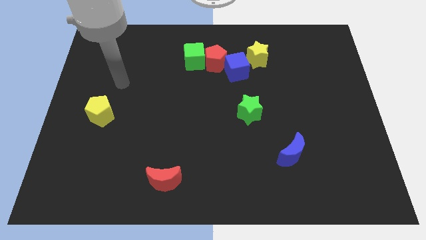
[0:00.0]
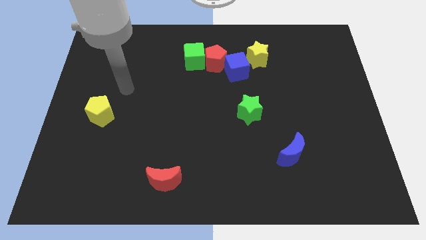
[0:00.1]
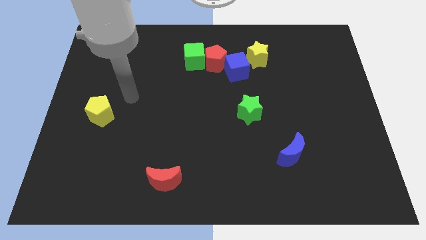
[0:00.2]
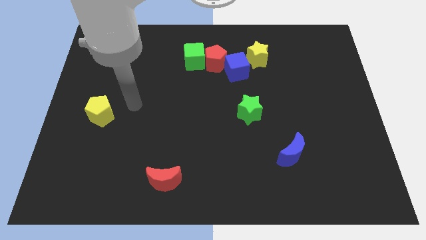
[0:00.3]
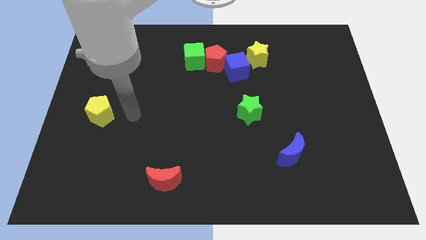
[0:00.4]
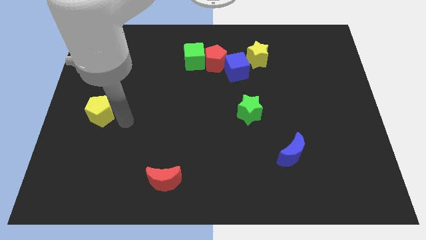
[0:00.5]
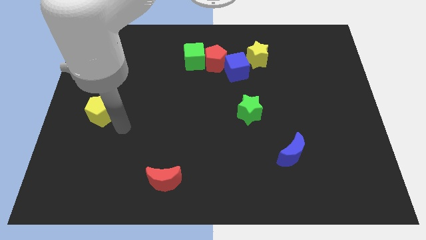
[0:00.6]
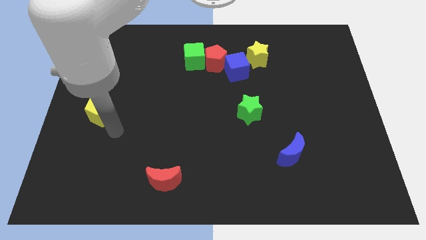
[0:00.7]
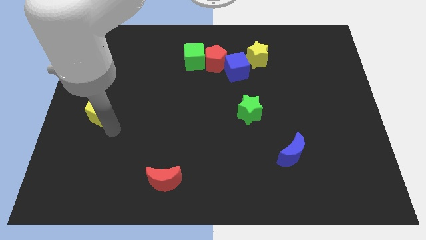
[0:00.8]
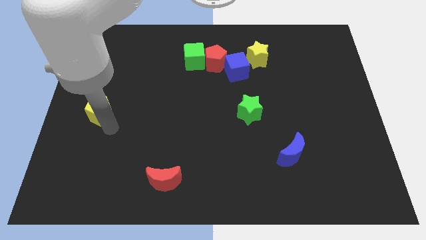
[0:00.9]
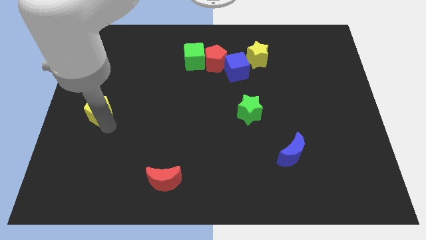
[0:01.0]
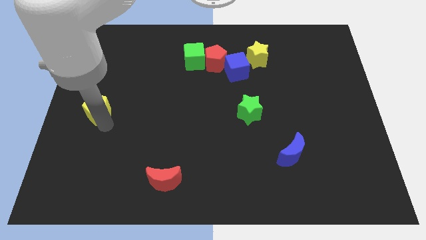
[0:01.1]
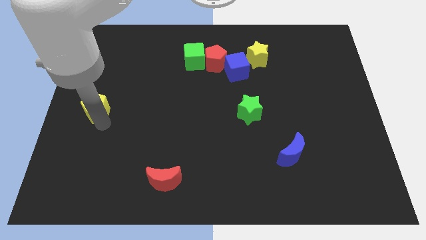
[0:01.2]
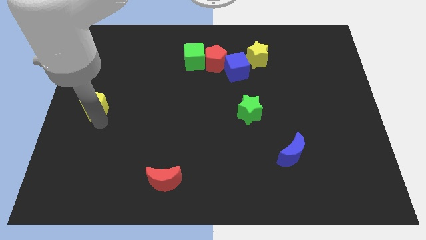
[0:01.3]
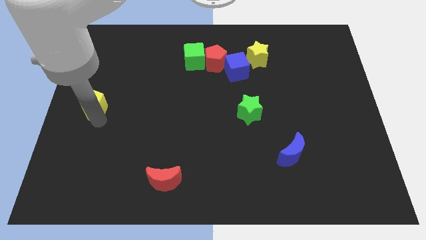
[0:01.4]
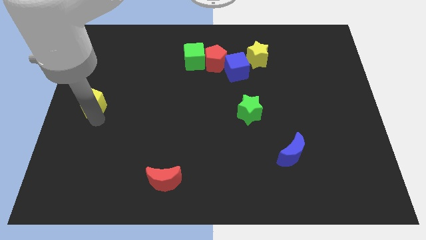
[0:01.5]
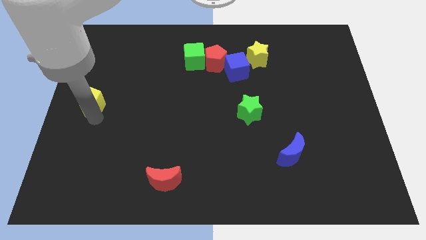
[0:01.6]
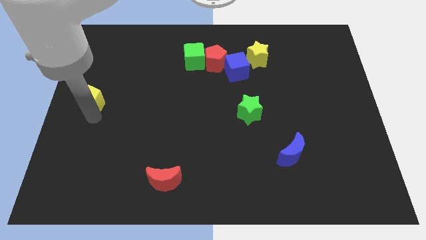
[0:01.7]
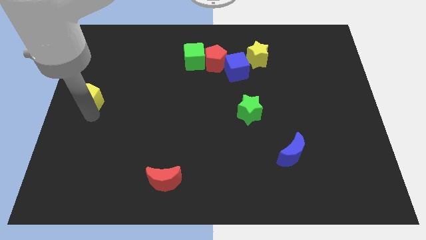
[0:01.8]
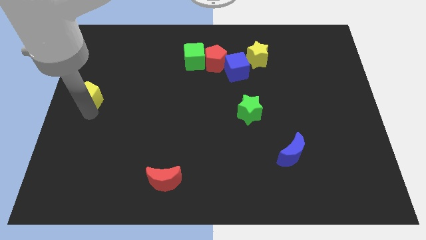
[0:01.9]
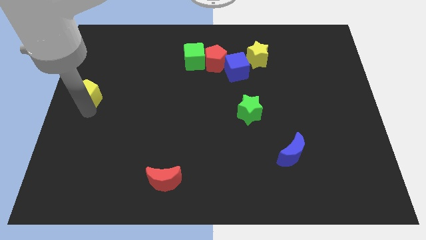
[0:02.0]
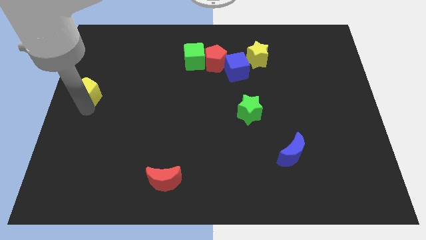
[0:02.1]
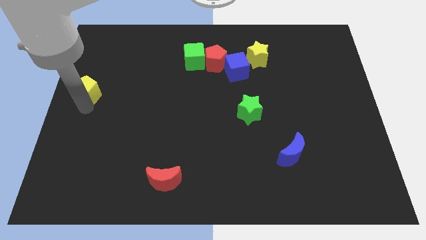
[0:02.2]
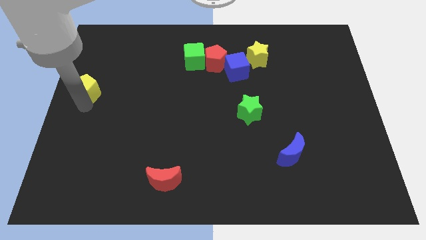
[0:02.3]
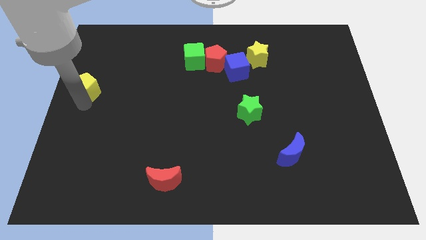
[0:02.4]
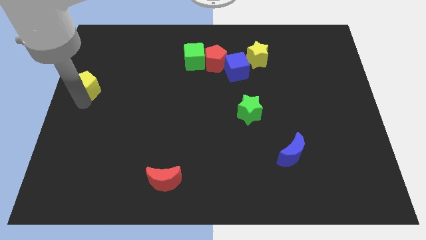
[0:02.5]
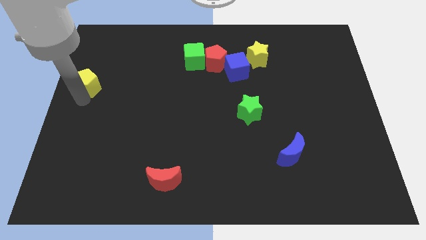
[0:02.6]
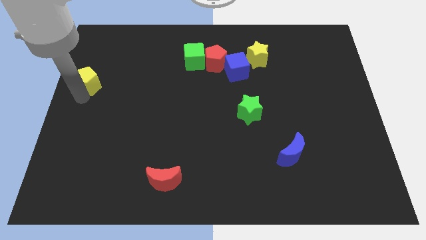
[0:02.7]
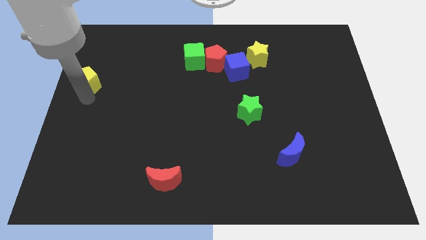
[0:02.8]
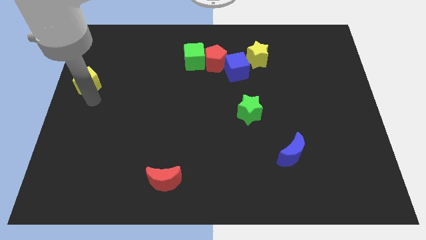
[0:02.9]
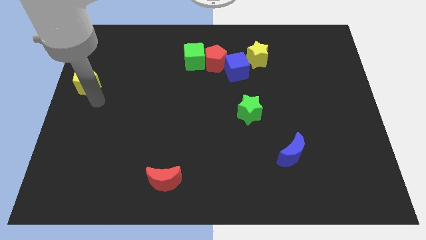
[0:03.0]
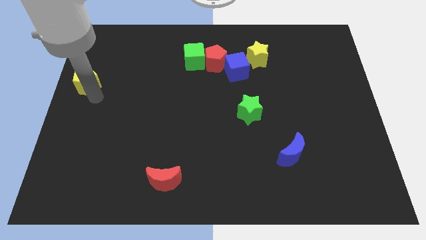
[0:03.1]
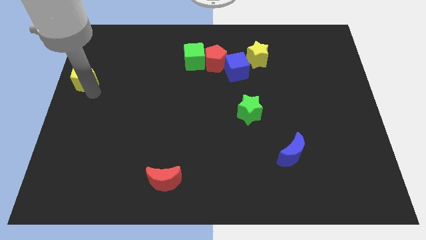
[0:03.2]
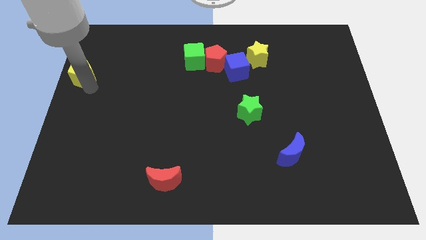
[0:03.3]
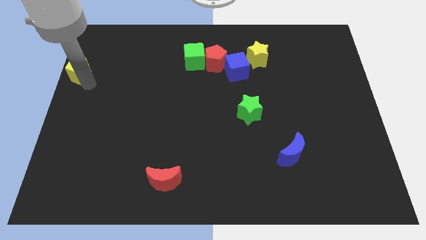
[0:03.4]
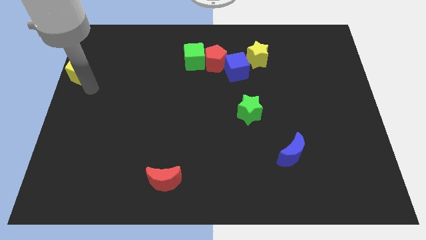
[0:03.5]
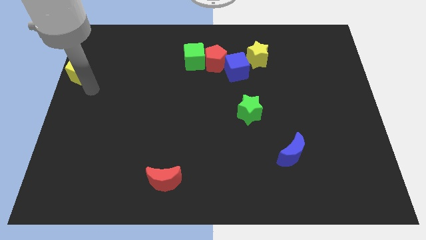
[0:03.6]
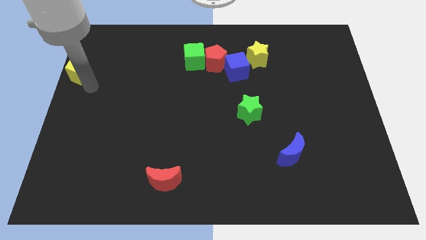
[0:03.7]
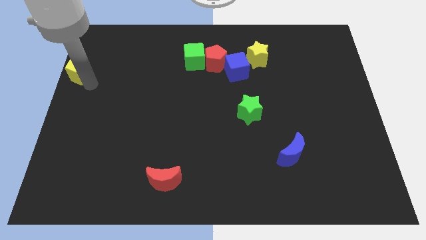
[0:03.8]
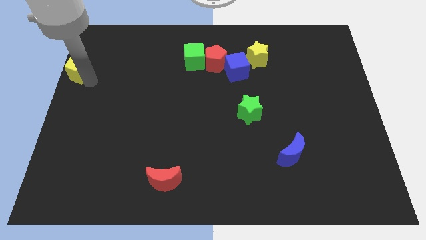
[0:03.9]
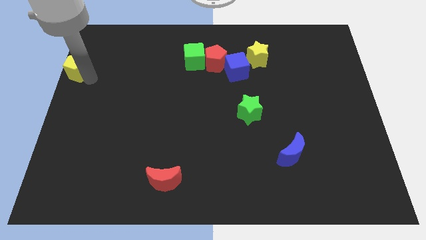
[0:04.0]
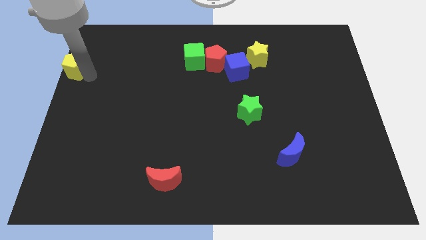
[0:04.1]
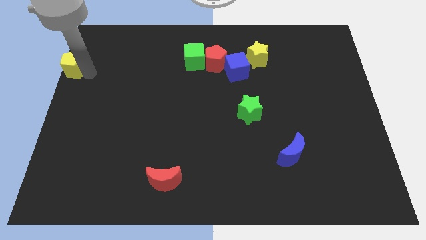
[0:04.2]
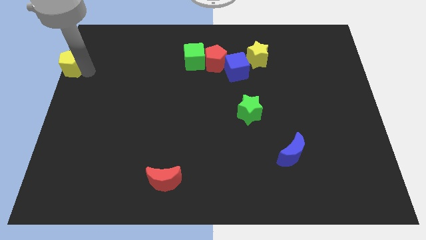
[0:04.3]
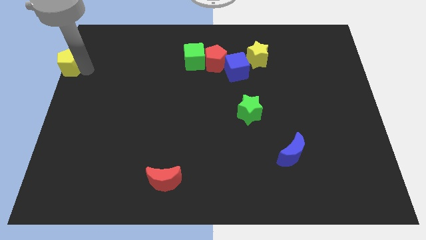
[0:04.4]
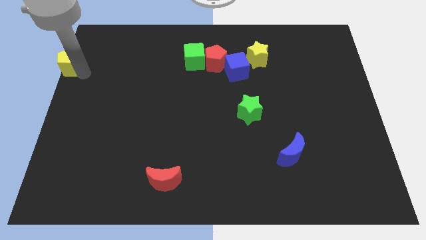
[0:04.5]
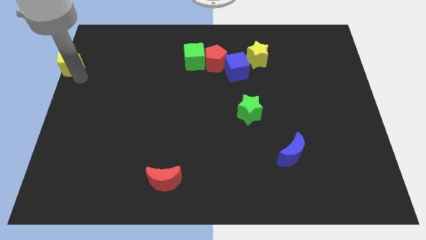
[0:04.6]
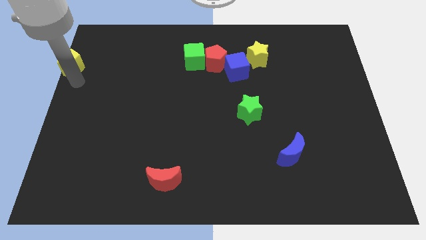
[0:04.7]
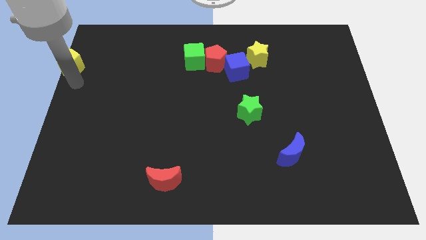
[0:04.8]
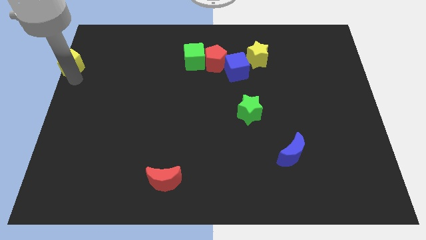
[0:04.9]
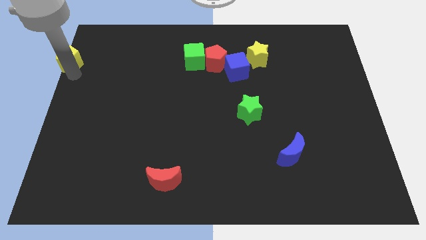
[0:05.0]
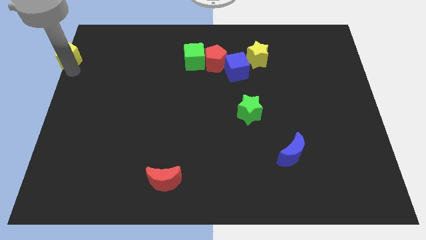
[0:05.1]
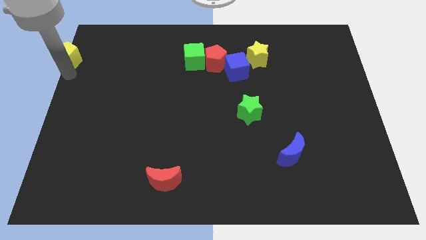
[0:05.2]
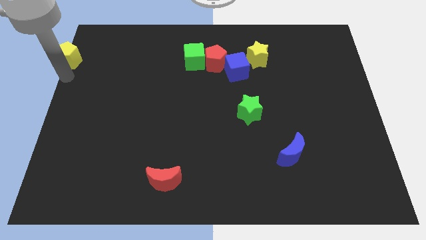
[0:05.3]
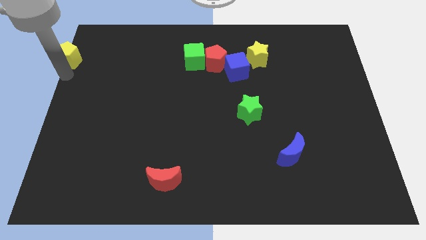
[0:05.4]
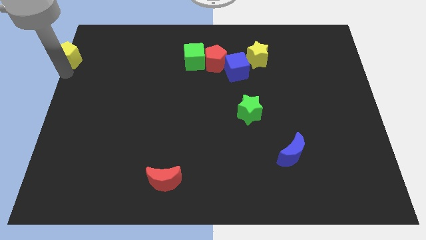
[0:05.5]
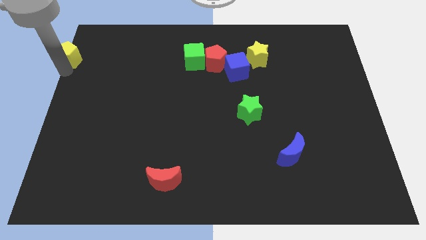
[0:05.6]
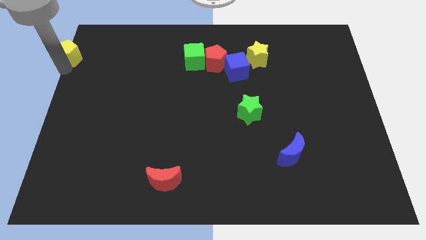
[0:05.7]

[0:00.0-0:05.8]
put the yellow pentagon to the top left

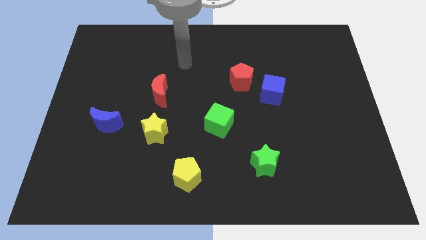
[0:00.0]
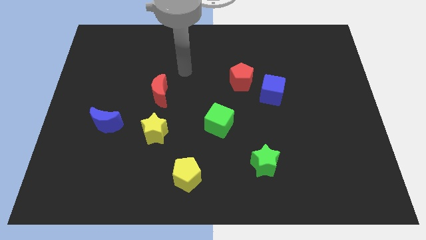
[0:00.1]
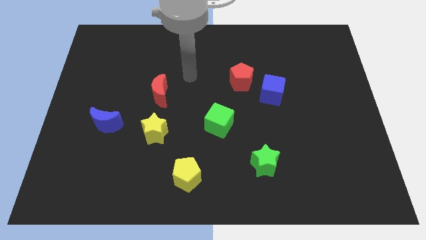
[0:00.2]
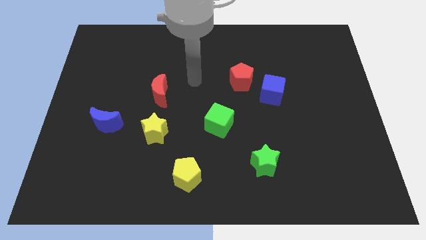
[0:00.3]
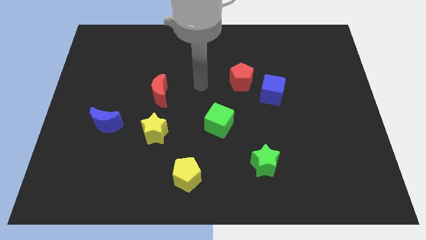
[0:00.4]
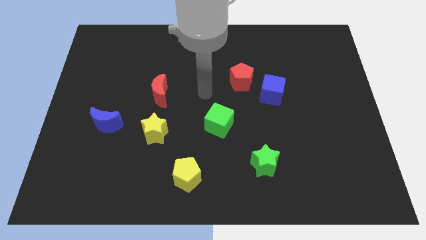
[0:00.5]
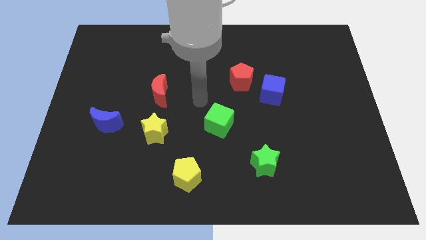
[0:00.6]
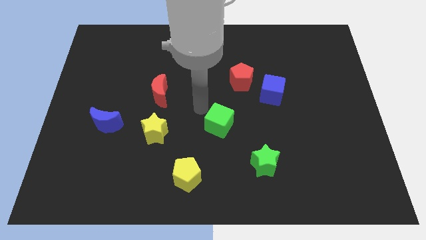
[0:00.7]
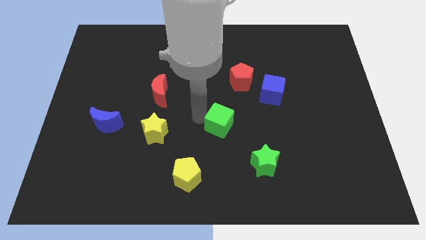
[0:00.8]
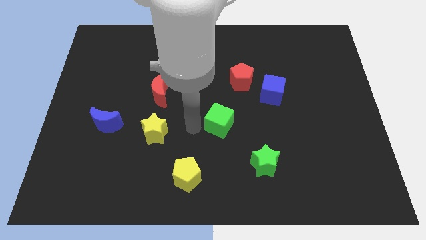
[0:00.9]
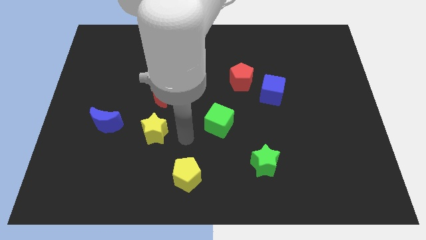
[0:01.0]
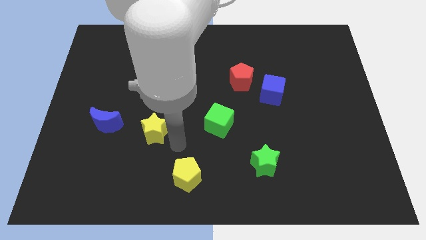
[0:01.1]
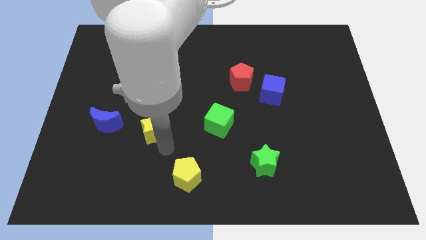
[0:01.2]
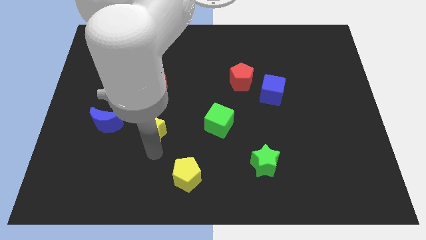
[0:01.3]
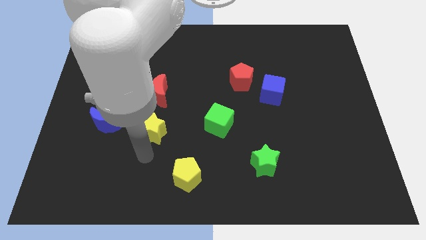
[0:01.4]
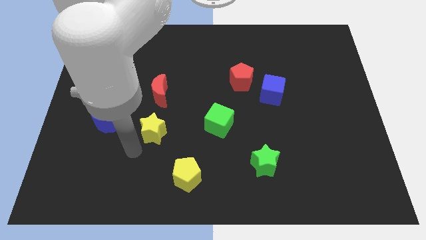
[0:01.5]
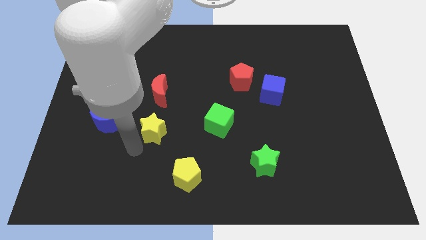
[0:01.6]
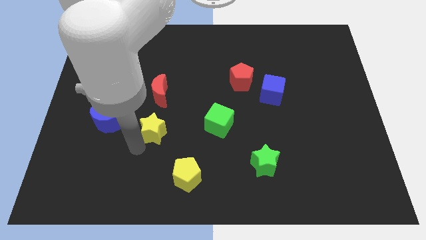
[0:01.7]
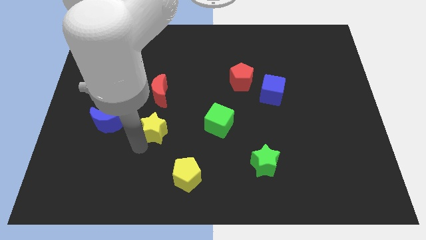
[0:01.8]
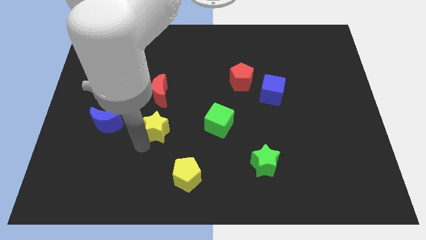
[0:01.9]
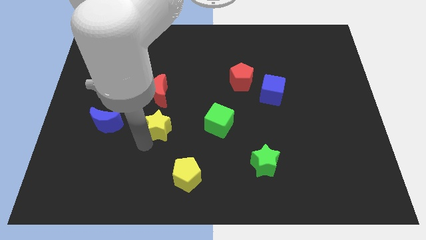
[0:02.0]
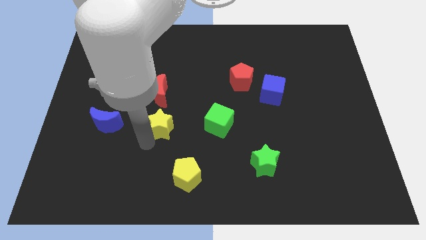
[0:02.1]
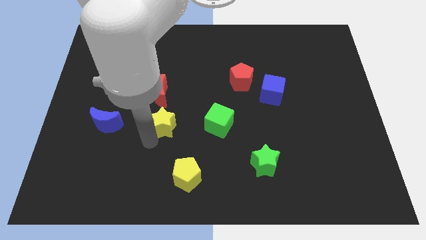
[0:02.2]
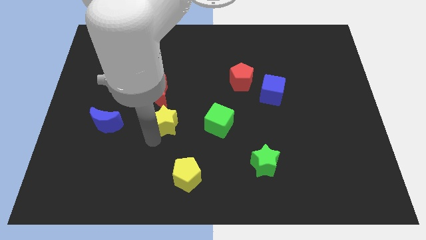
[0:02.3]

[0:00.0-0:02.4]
move the yellow star to the middle of the board
